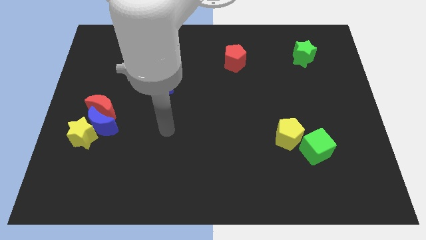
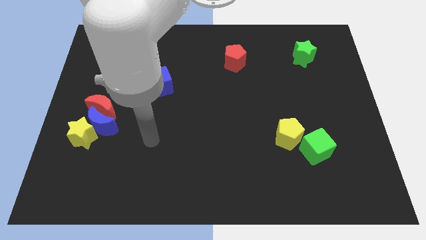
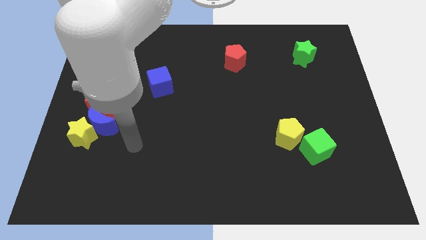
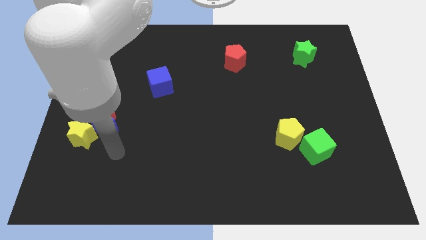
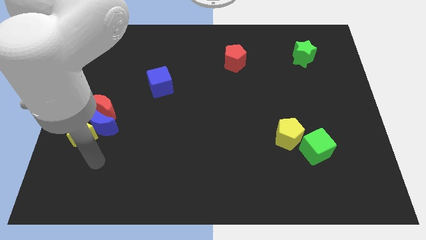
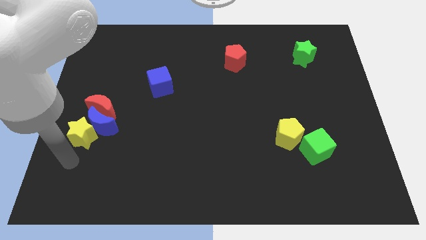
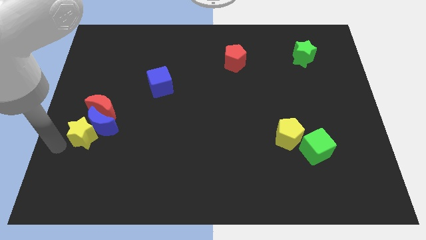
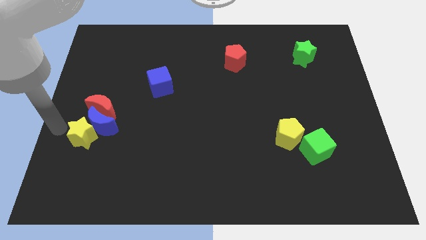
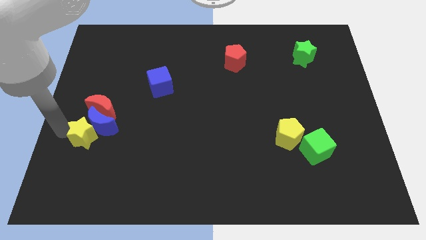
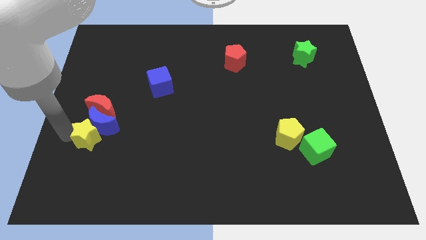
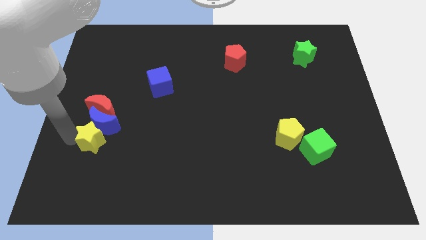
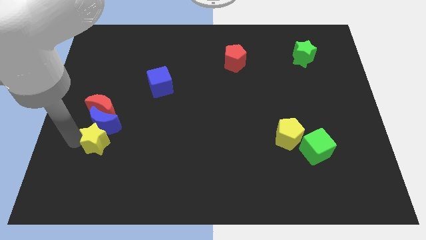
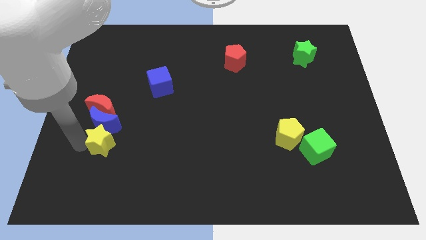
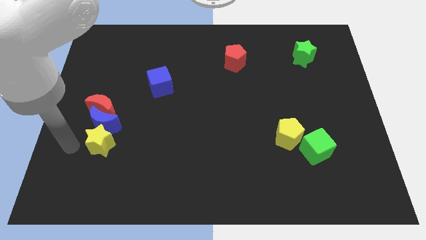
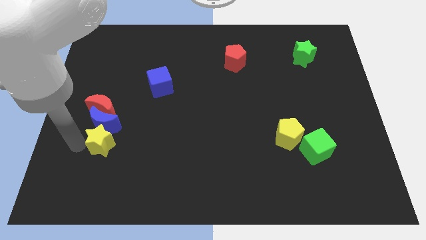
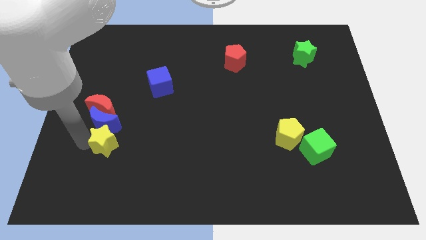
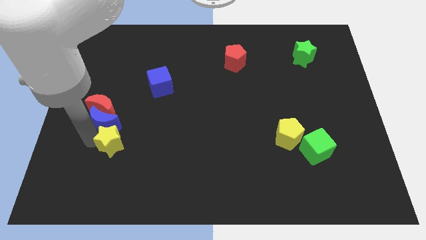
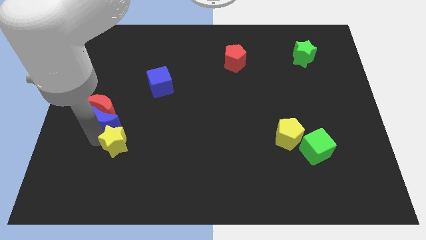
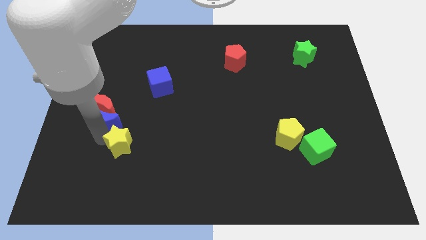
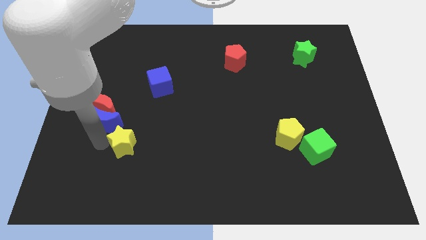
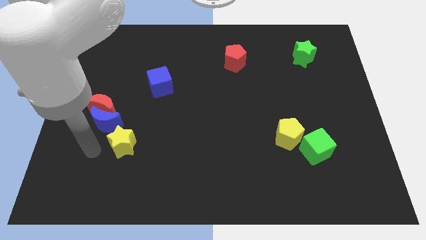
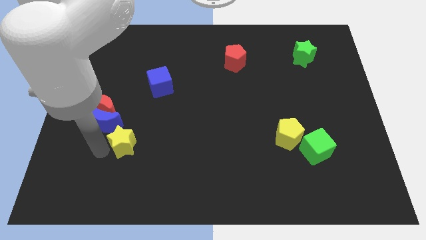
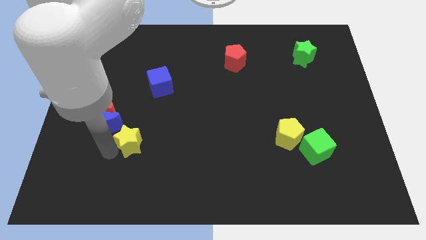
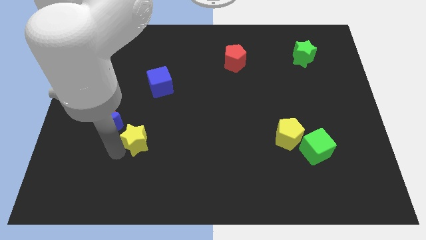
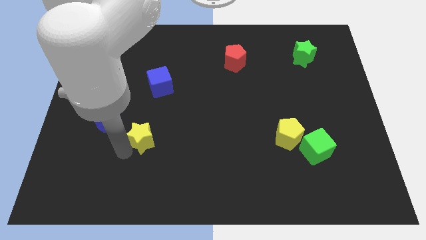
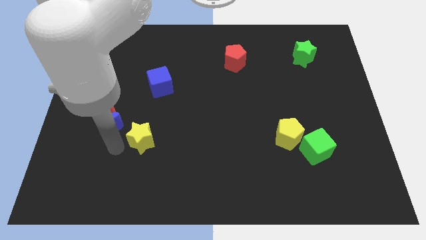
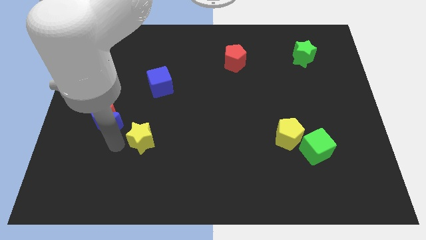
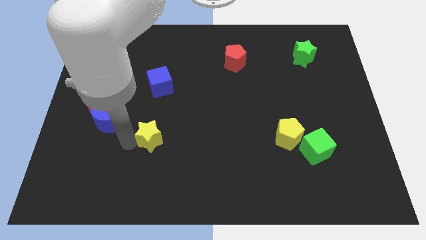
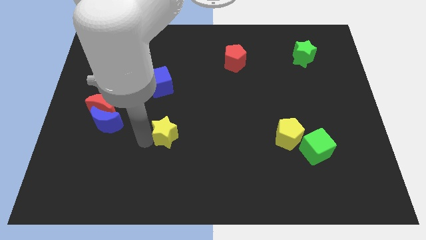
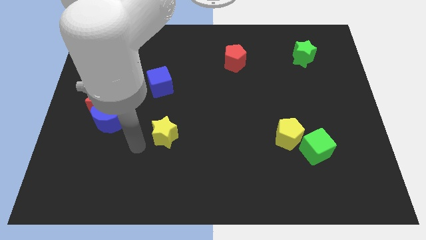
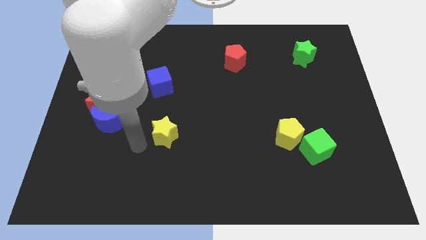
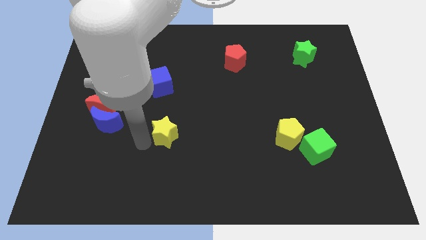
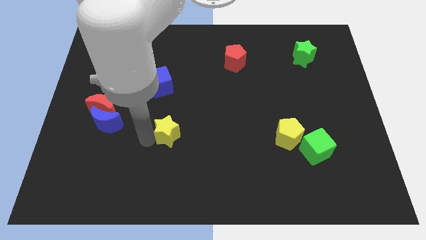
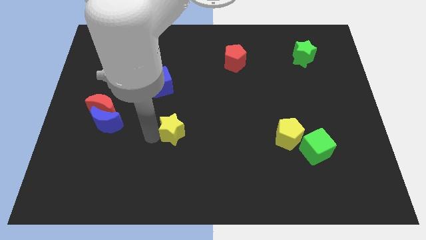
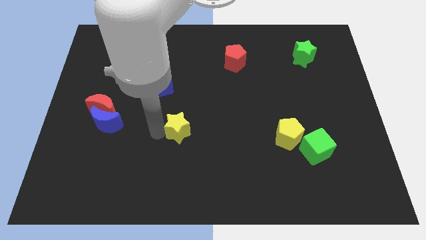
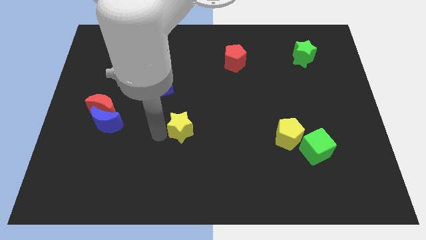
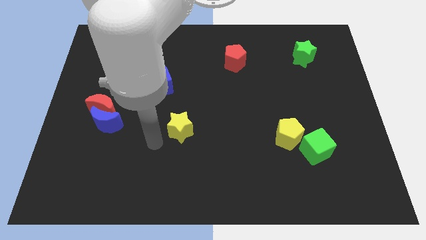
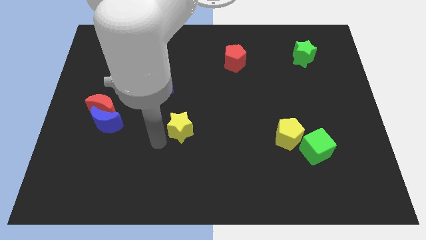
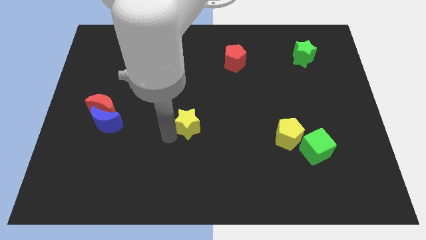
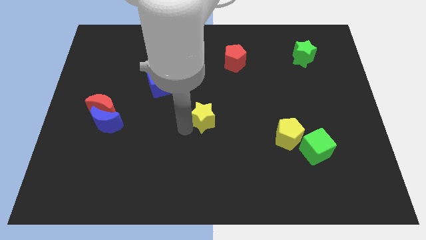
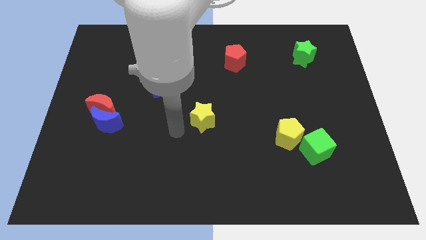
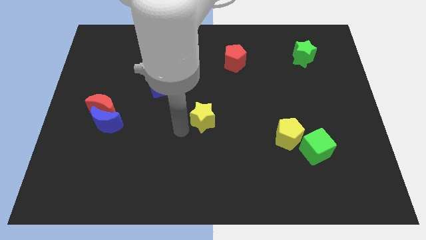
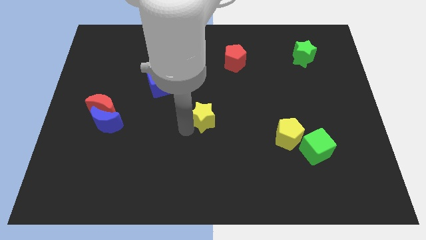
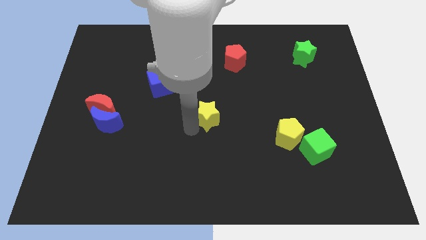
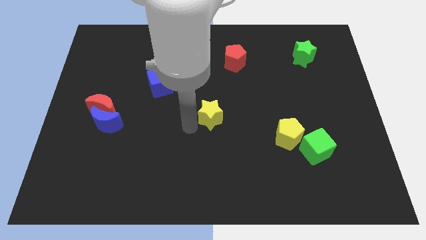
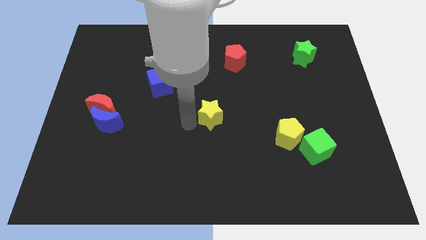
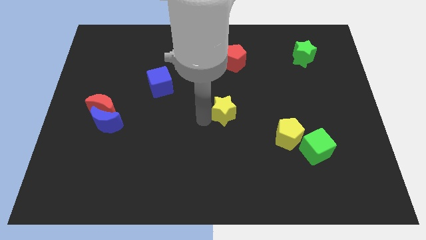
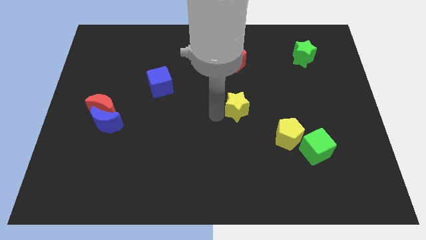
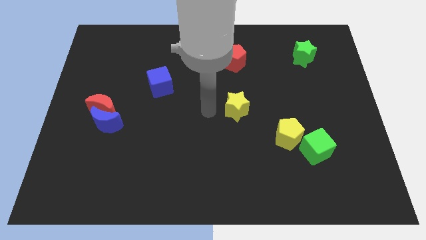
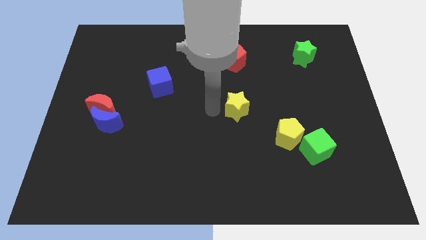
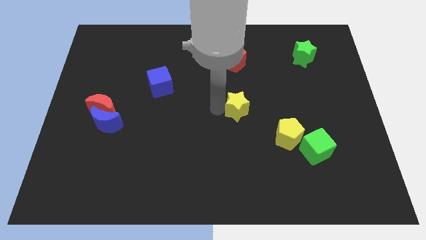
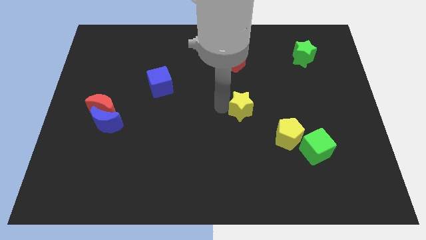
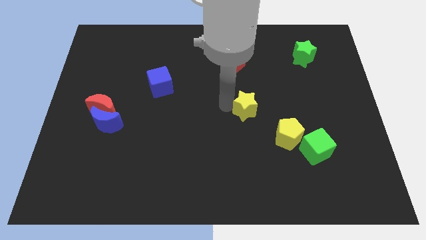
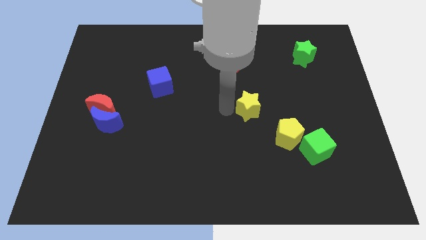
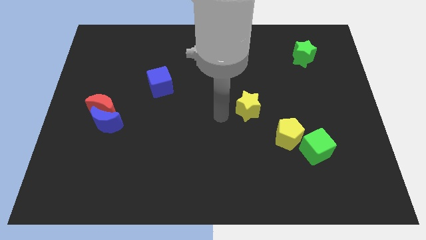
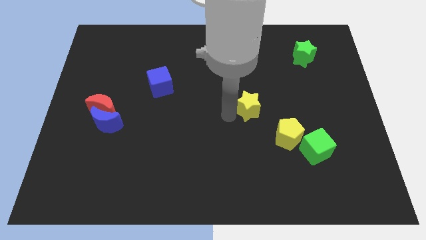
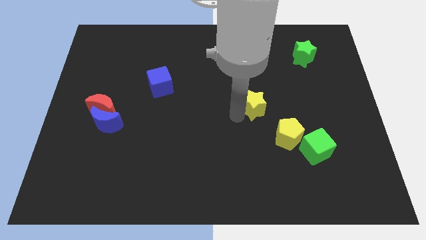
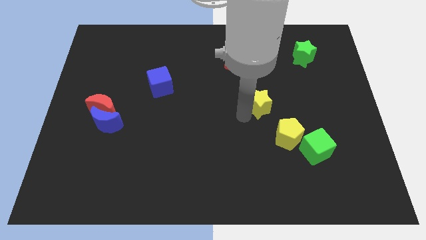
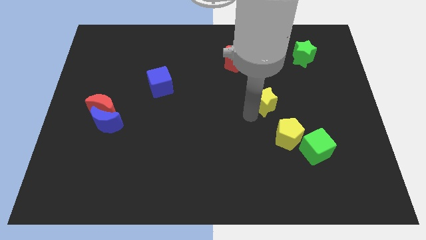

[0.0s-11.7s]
slide the yellow star to the top side of the yellow pentagon

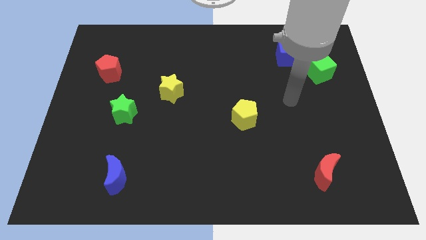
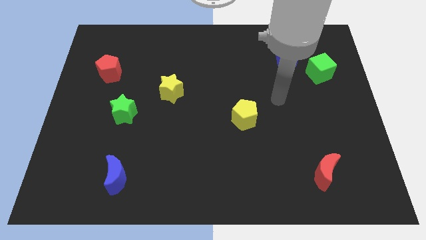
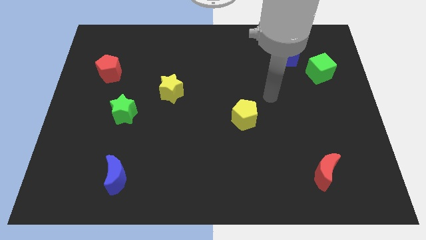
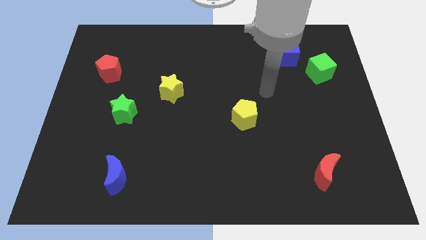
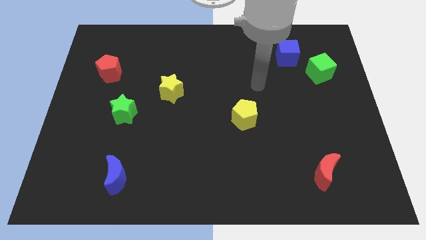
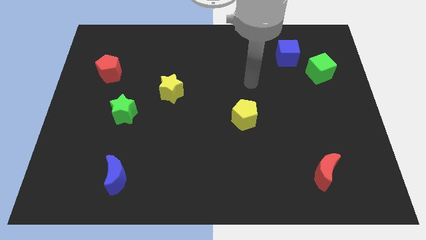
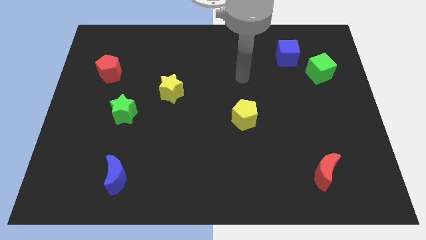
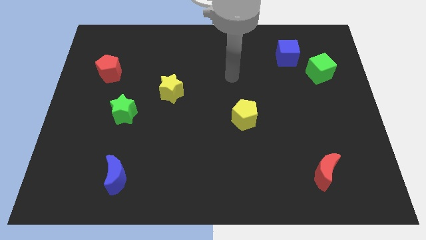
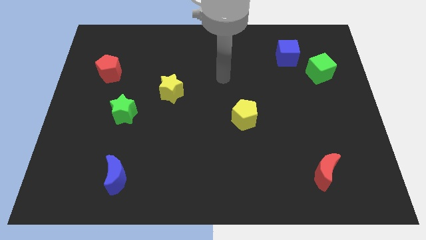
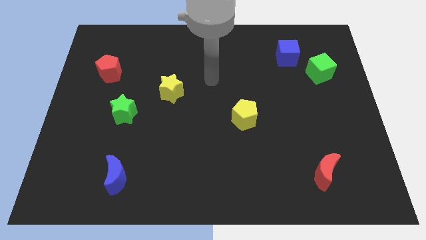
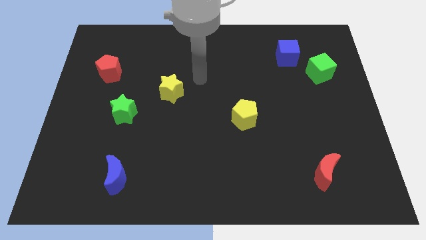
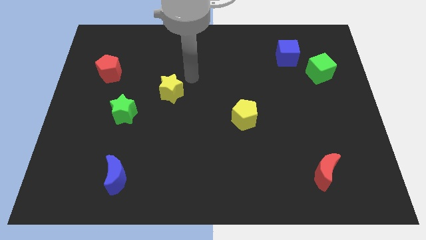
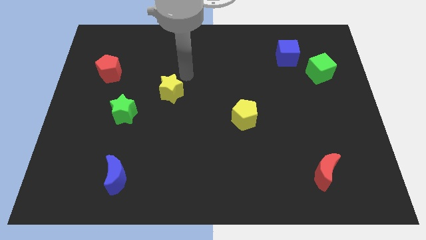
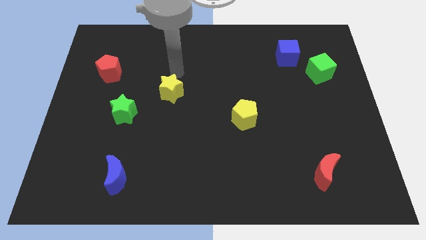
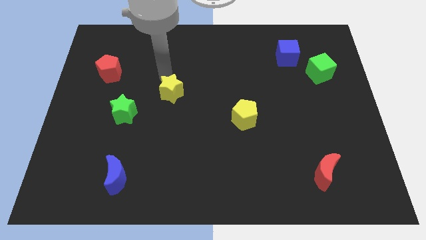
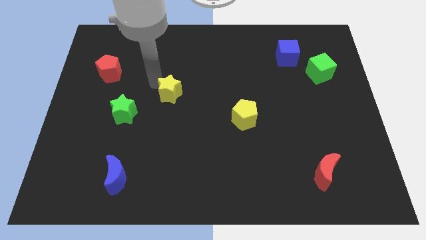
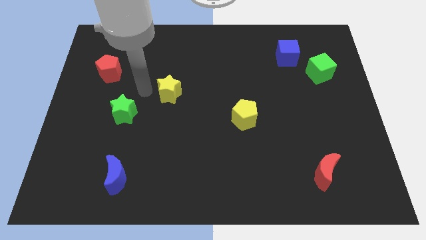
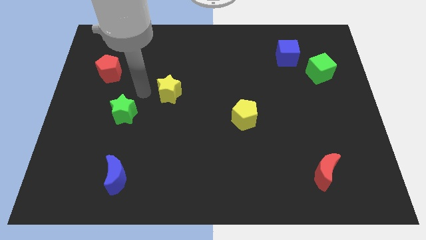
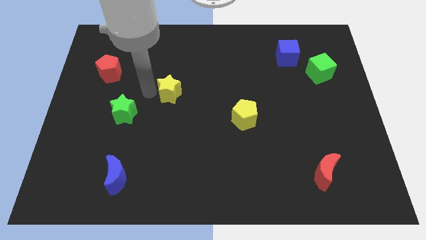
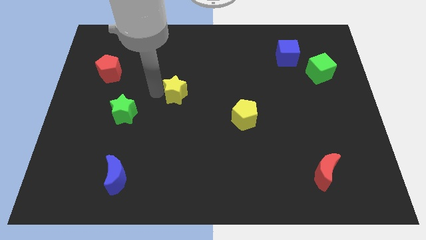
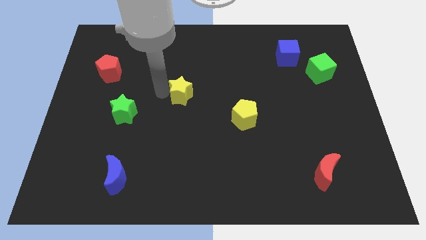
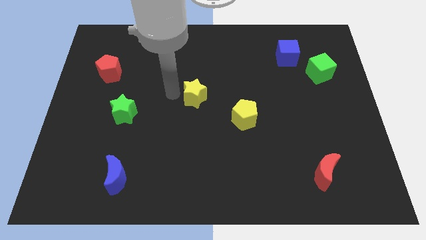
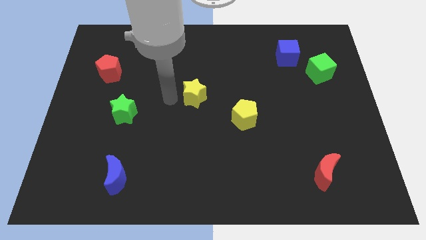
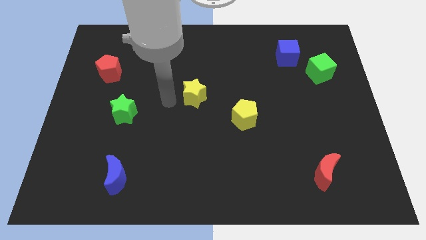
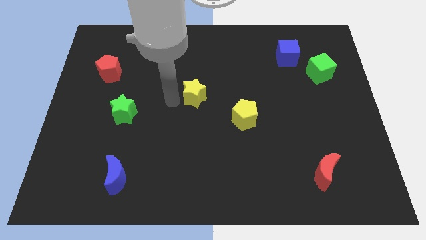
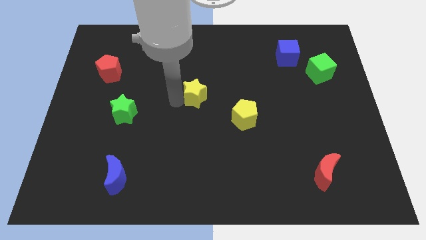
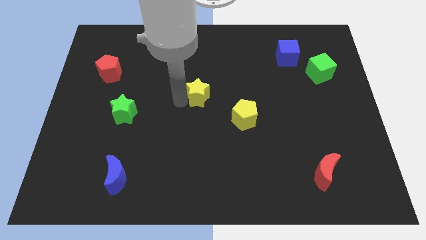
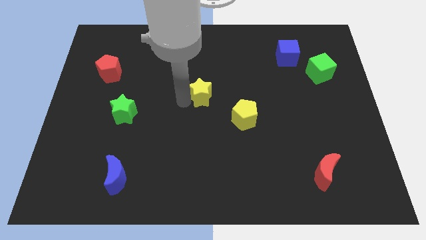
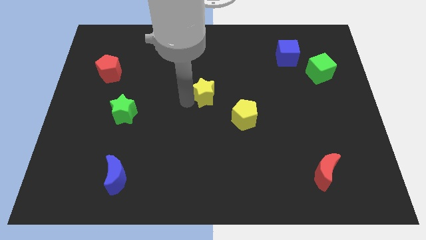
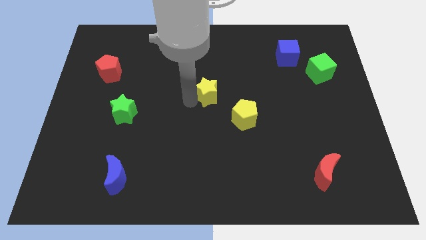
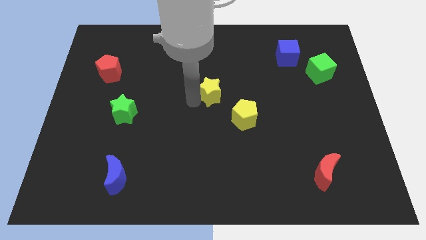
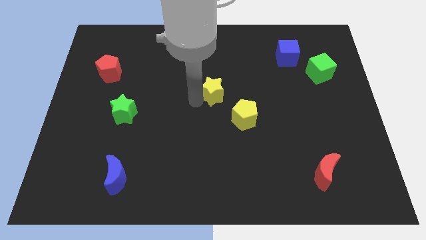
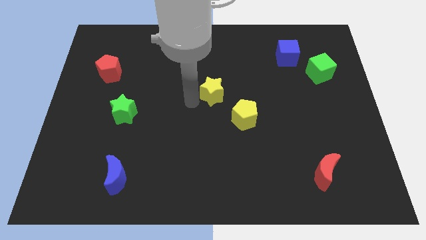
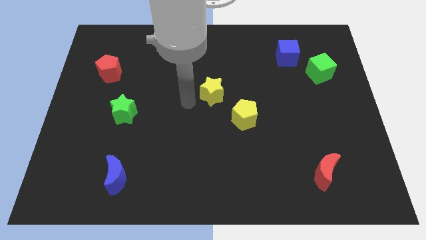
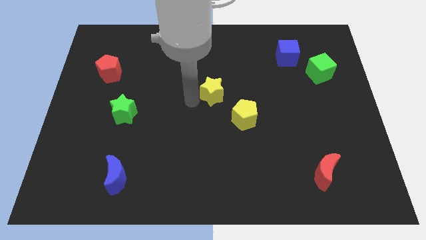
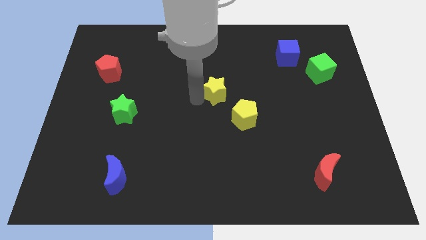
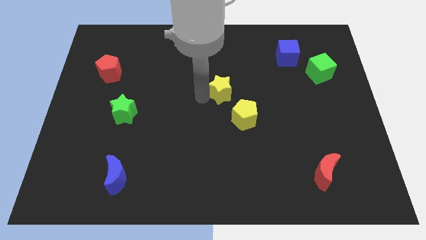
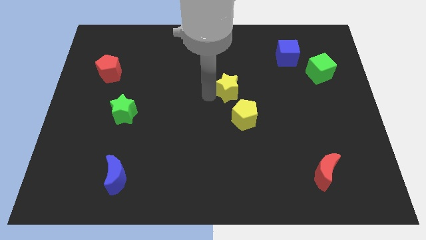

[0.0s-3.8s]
push the yellow star to the top side of the yellow pentagon
